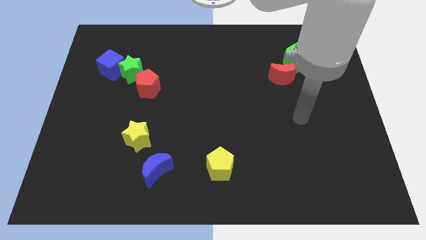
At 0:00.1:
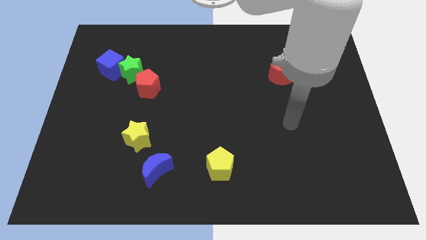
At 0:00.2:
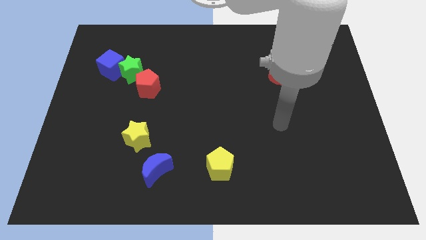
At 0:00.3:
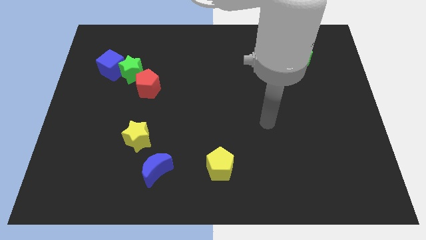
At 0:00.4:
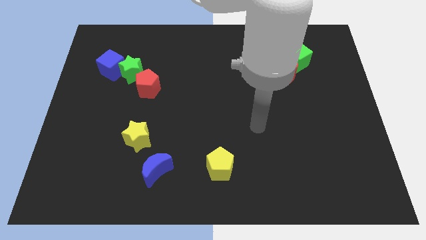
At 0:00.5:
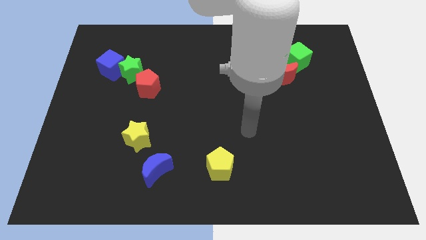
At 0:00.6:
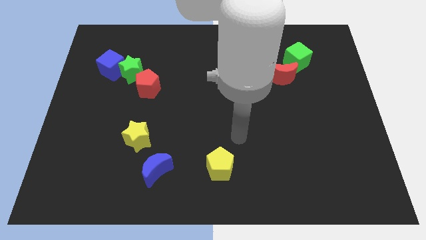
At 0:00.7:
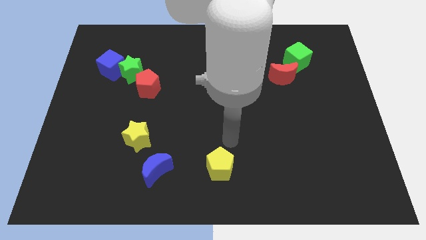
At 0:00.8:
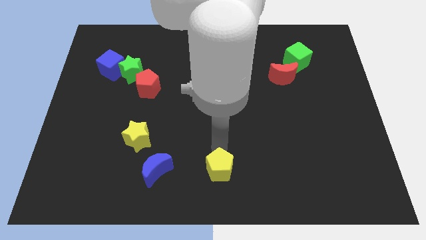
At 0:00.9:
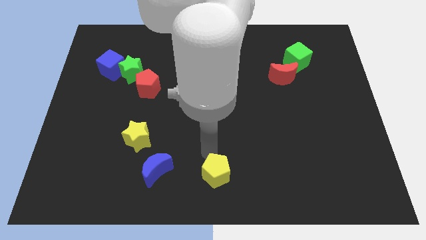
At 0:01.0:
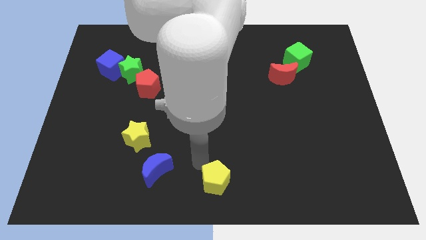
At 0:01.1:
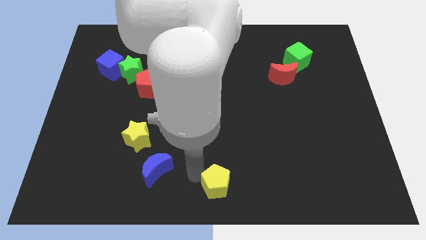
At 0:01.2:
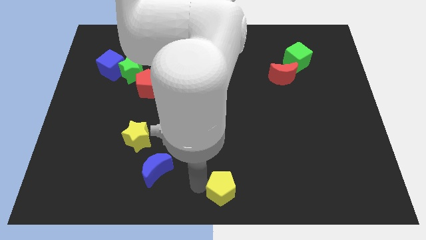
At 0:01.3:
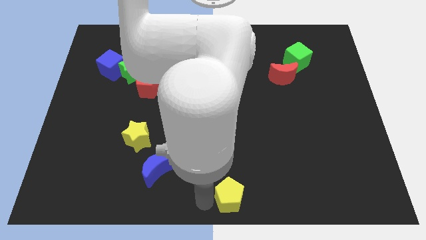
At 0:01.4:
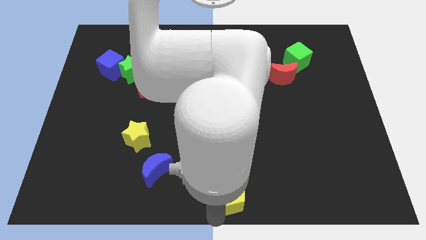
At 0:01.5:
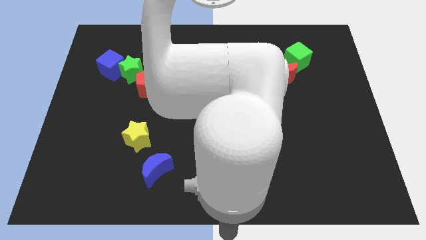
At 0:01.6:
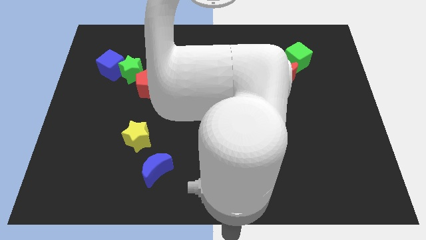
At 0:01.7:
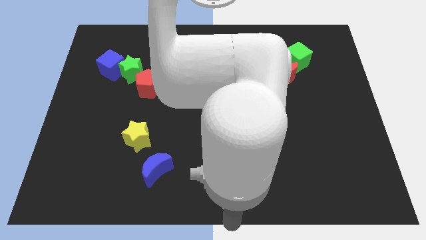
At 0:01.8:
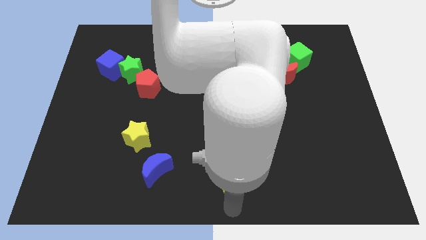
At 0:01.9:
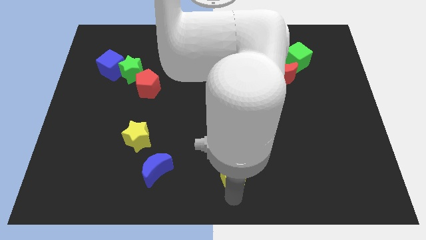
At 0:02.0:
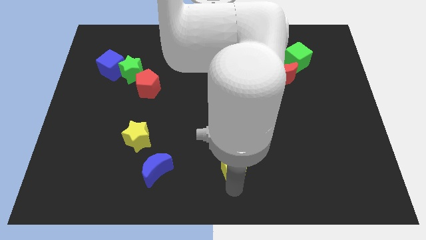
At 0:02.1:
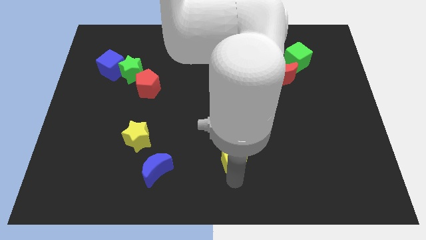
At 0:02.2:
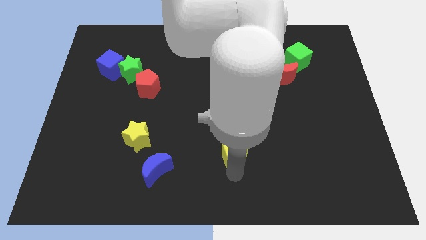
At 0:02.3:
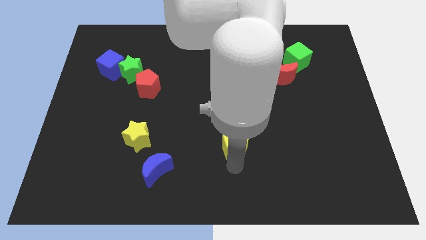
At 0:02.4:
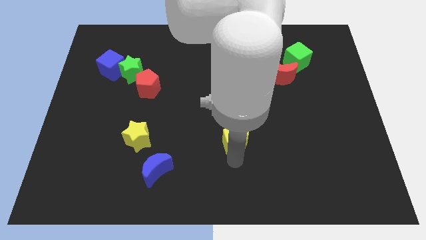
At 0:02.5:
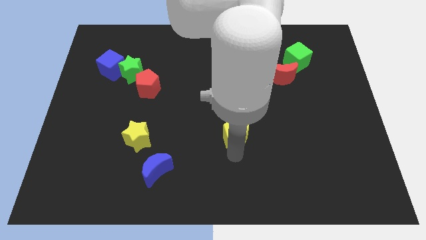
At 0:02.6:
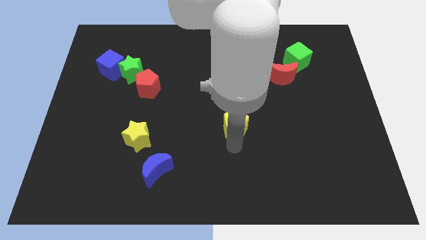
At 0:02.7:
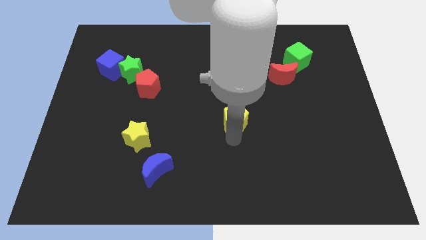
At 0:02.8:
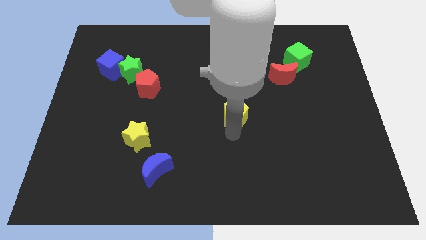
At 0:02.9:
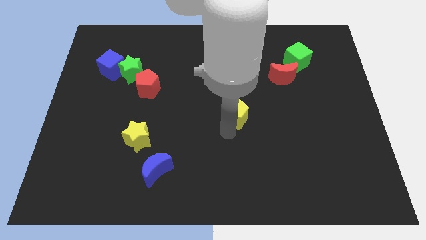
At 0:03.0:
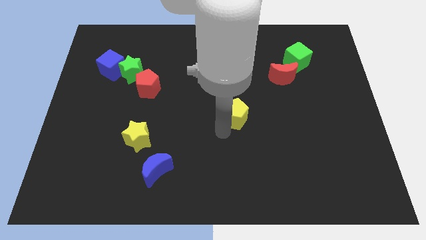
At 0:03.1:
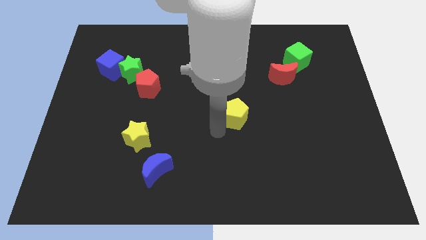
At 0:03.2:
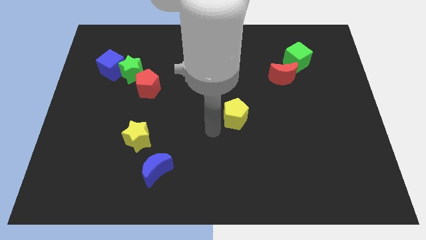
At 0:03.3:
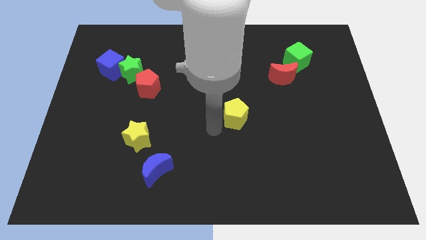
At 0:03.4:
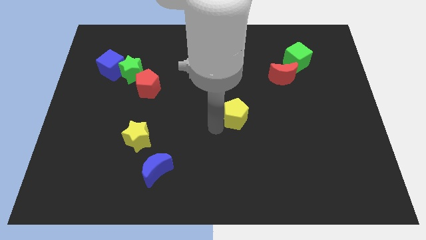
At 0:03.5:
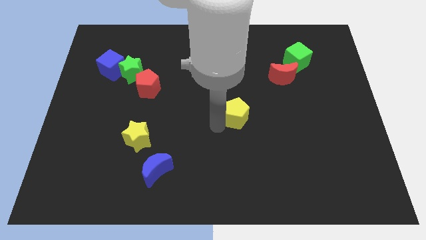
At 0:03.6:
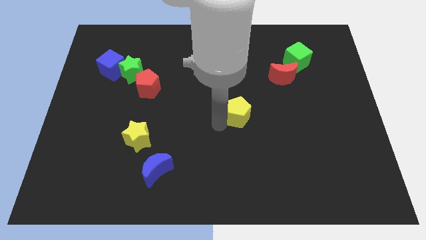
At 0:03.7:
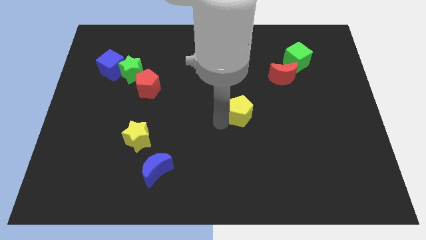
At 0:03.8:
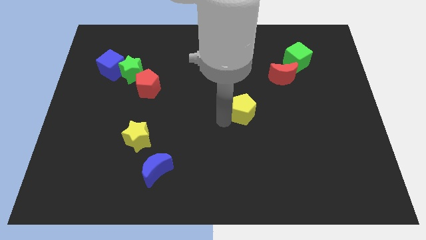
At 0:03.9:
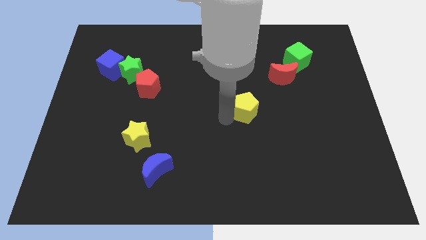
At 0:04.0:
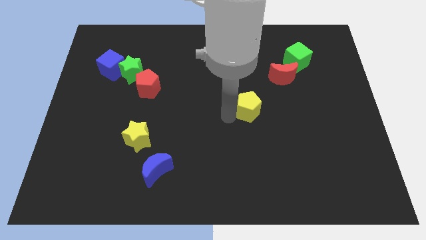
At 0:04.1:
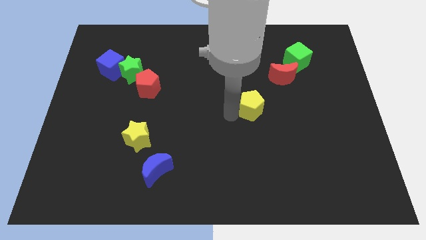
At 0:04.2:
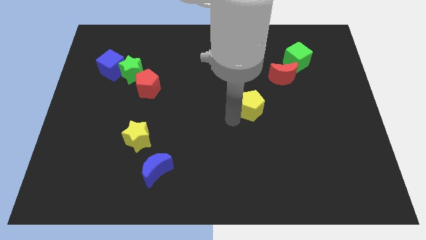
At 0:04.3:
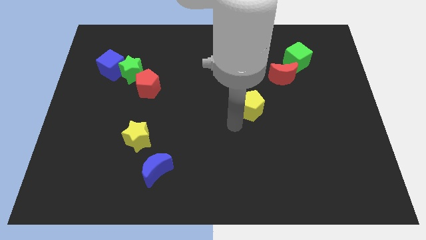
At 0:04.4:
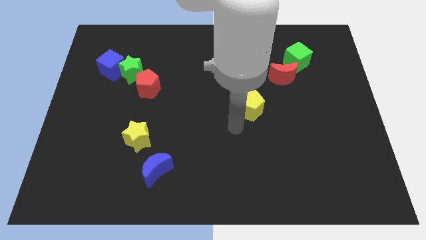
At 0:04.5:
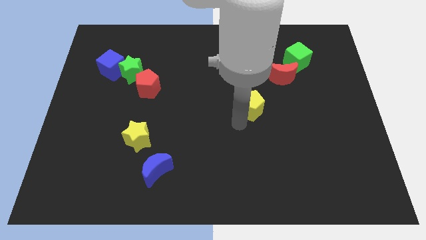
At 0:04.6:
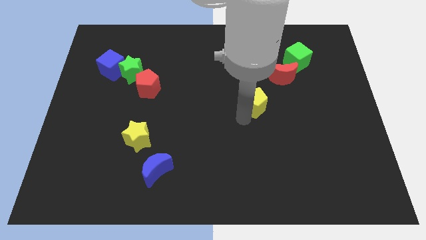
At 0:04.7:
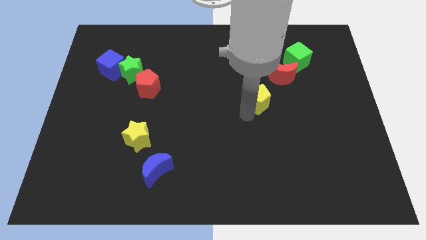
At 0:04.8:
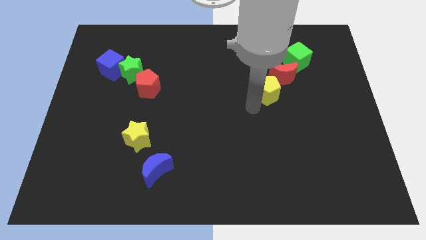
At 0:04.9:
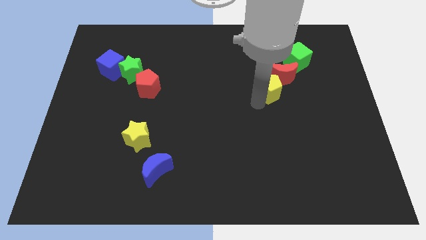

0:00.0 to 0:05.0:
slide the yellow pentagon next to the red moon

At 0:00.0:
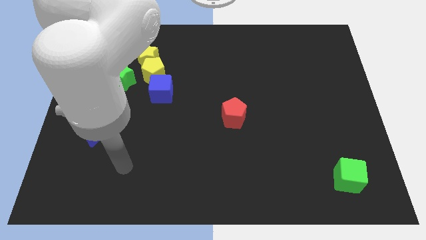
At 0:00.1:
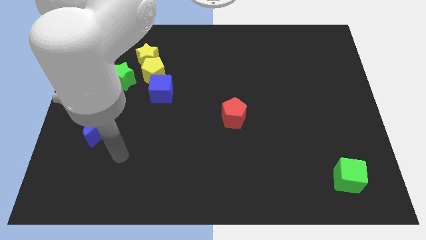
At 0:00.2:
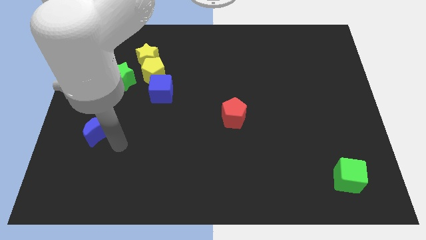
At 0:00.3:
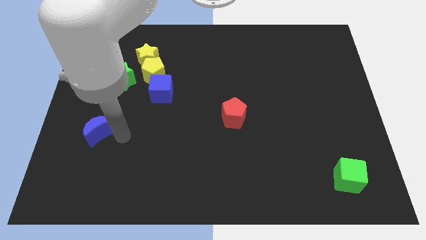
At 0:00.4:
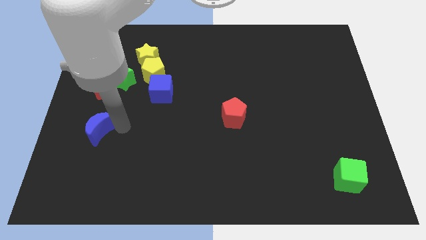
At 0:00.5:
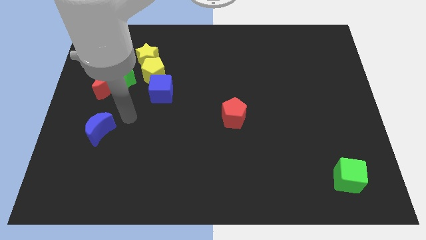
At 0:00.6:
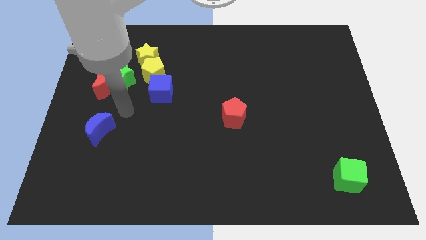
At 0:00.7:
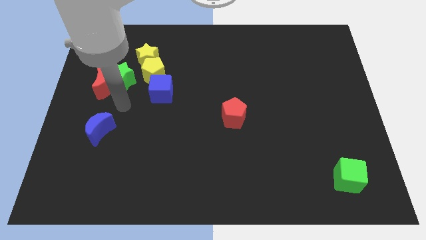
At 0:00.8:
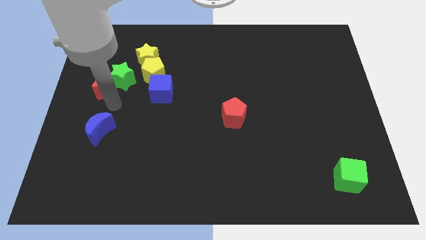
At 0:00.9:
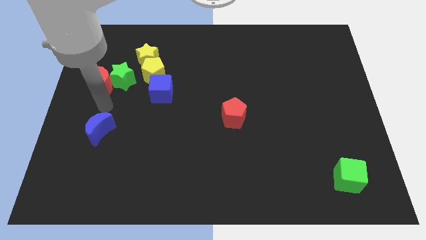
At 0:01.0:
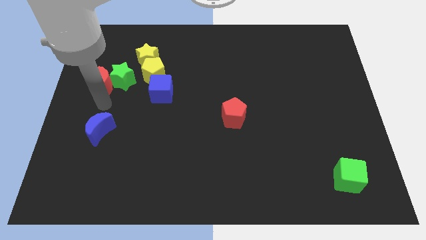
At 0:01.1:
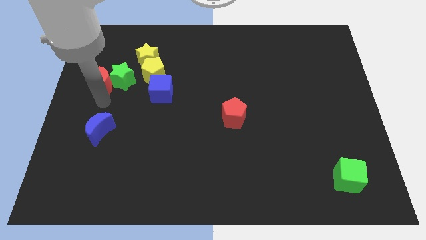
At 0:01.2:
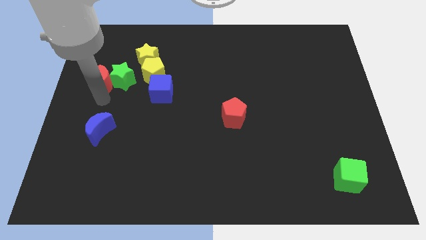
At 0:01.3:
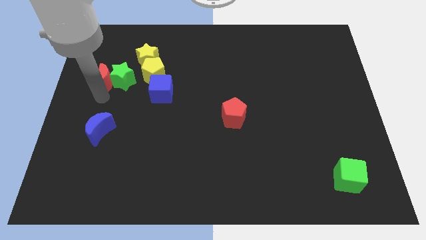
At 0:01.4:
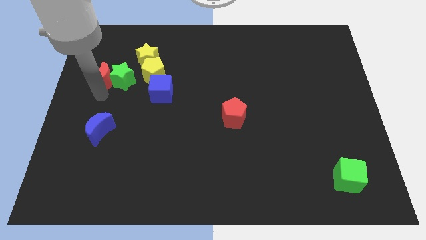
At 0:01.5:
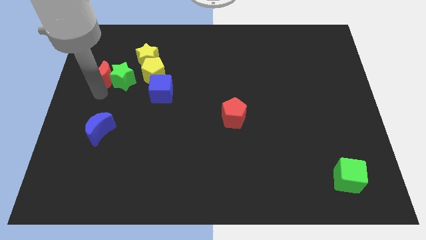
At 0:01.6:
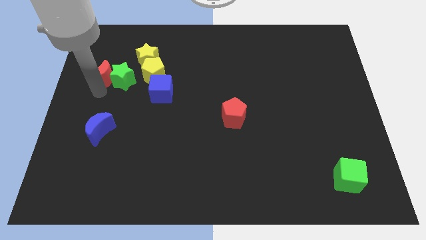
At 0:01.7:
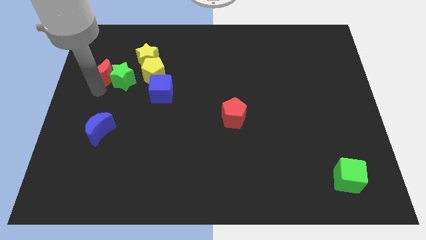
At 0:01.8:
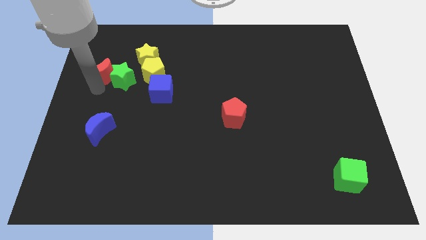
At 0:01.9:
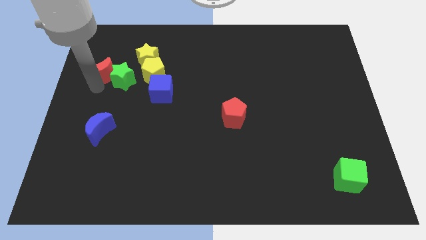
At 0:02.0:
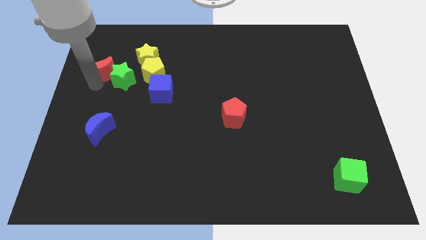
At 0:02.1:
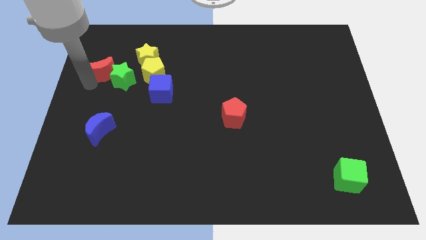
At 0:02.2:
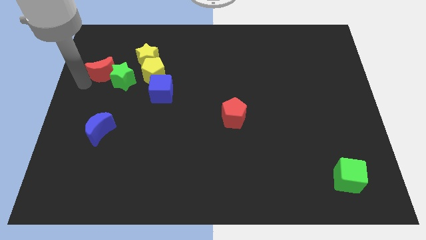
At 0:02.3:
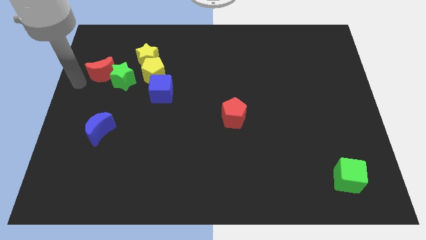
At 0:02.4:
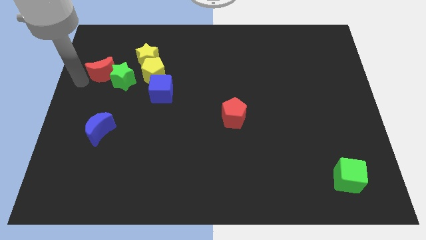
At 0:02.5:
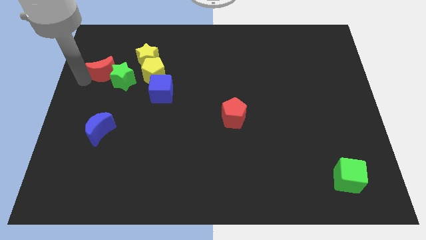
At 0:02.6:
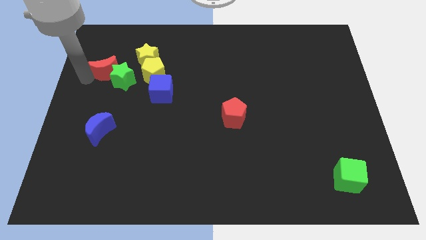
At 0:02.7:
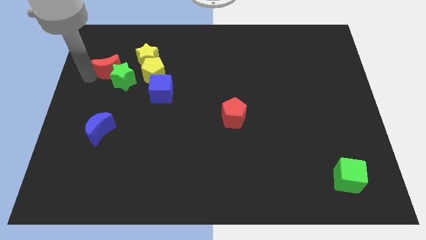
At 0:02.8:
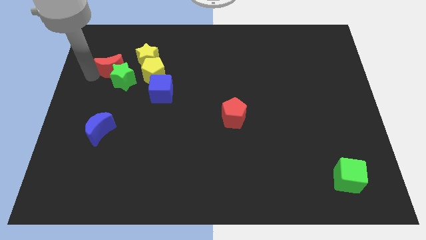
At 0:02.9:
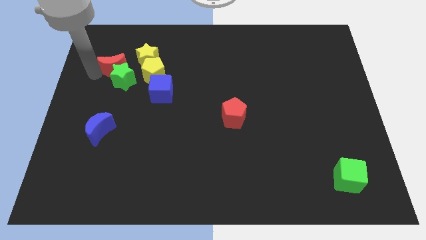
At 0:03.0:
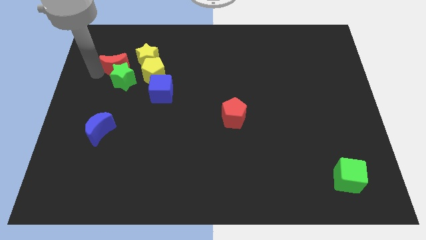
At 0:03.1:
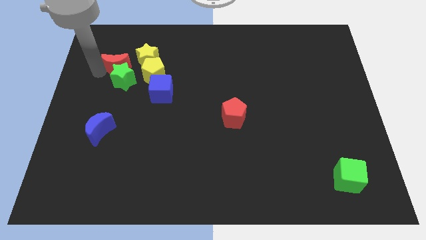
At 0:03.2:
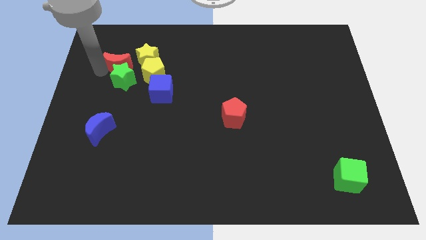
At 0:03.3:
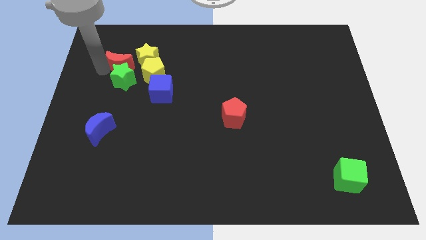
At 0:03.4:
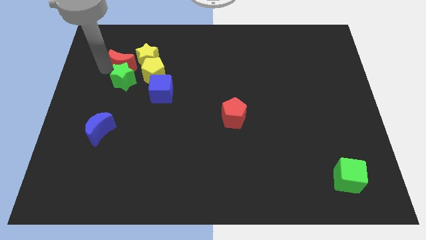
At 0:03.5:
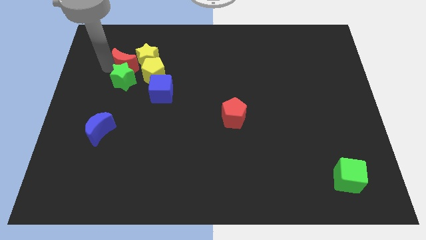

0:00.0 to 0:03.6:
push the red moon close to the yellow star
